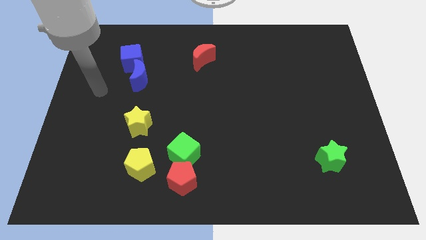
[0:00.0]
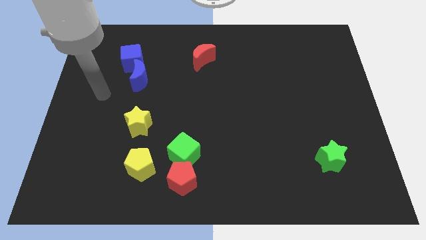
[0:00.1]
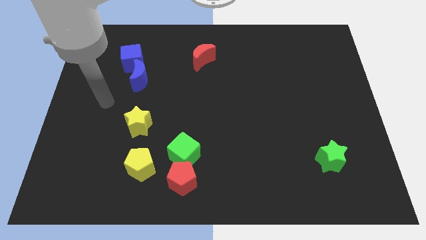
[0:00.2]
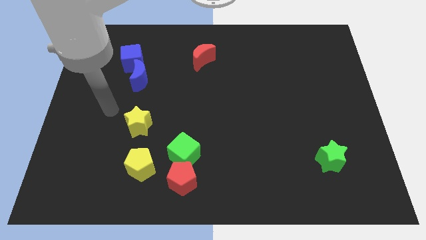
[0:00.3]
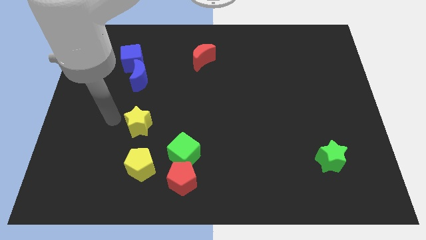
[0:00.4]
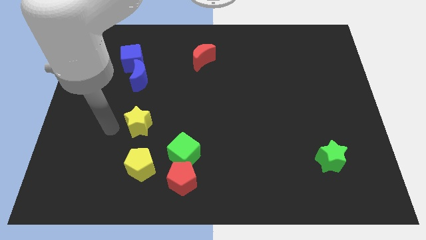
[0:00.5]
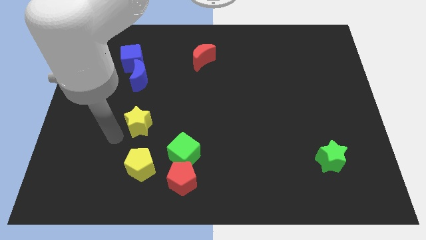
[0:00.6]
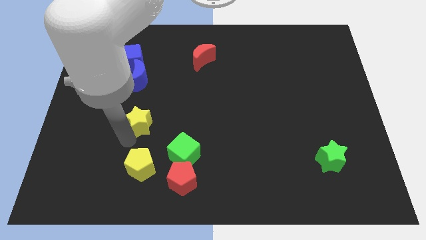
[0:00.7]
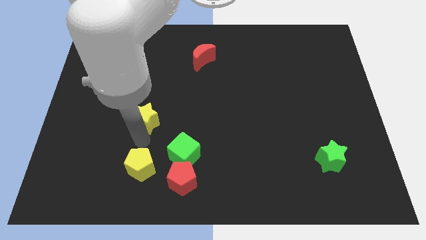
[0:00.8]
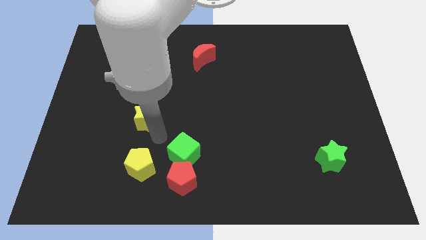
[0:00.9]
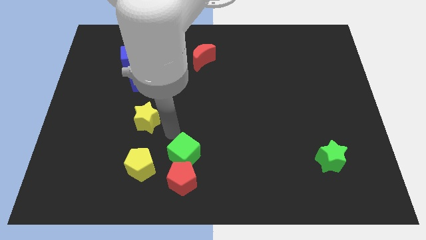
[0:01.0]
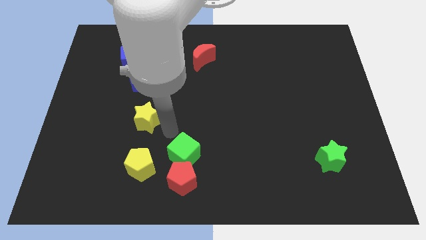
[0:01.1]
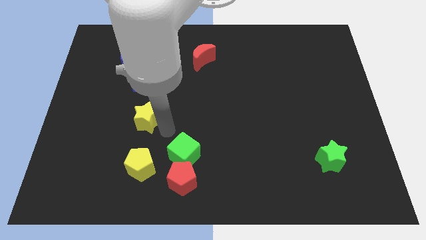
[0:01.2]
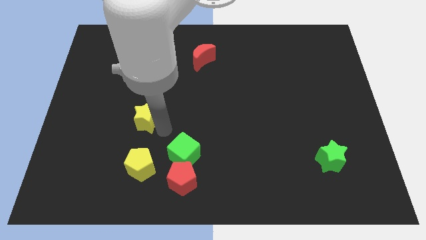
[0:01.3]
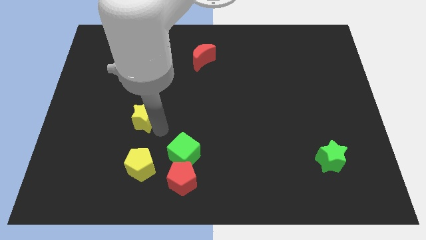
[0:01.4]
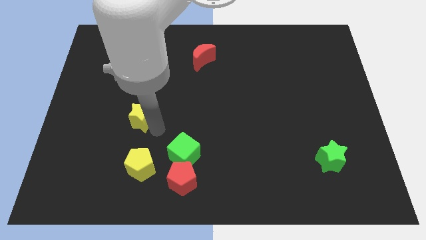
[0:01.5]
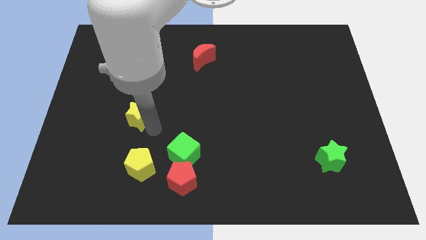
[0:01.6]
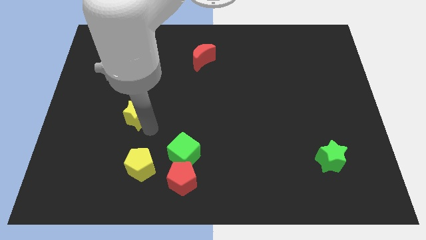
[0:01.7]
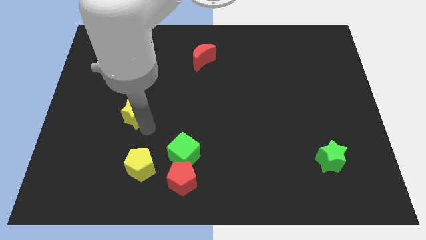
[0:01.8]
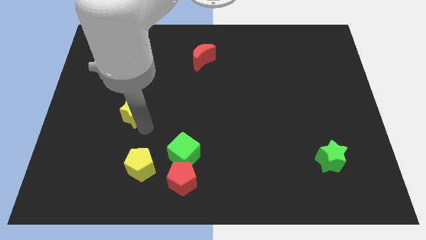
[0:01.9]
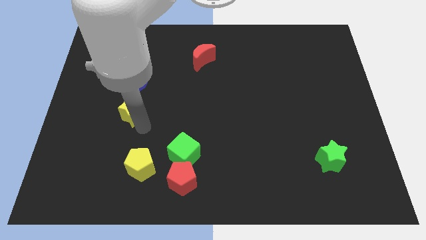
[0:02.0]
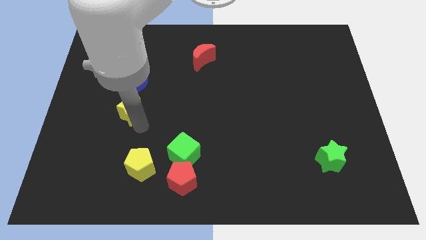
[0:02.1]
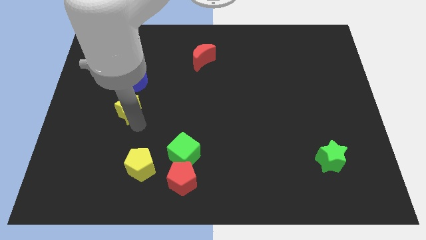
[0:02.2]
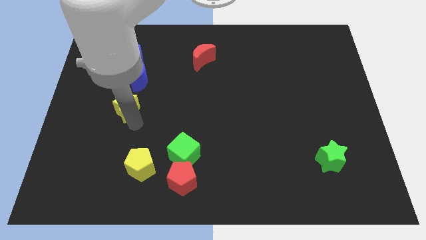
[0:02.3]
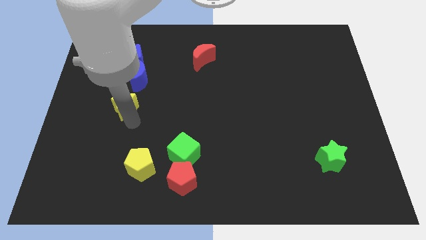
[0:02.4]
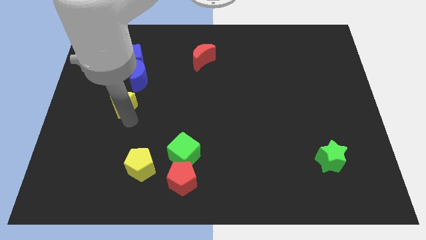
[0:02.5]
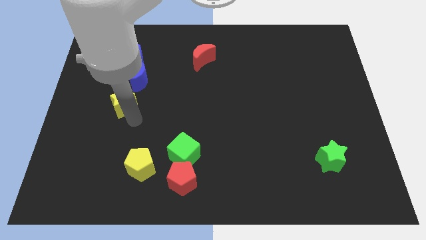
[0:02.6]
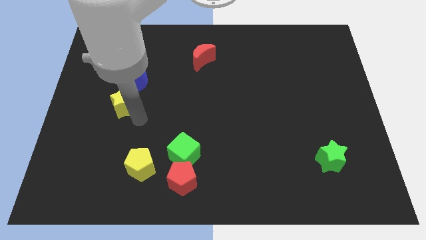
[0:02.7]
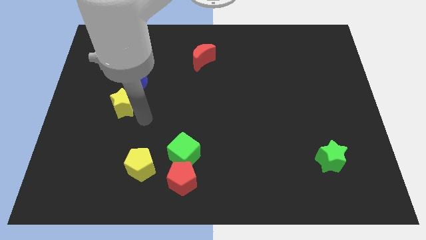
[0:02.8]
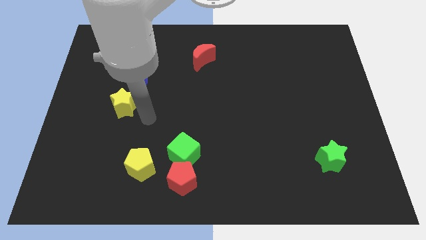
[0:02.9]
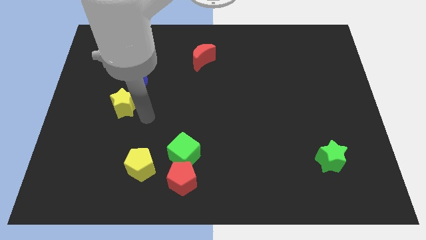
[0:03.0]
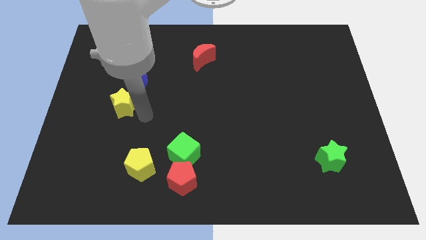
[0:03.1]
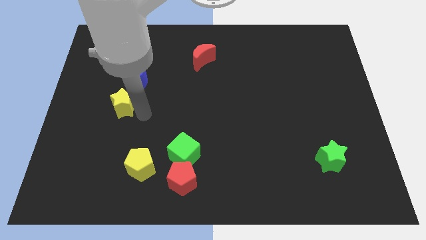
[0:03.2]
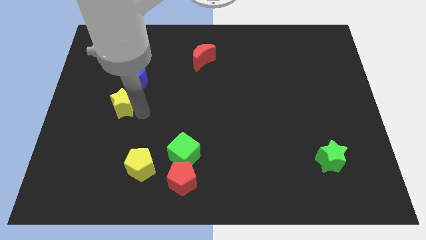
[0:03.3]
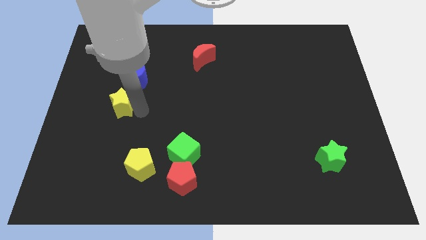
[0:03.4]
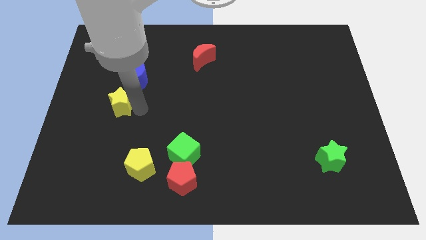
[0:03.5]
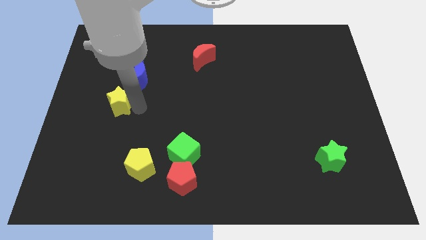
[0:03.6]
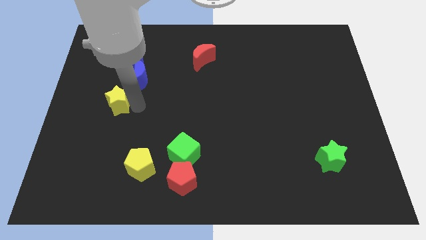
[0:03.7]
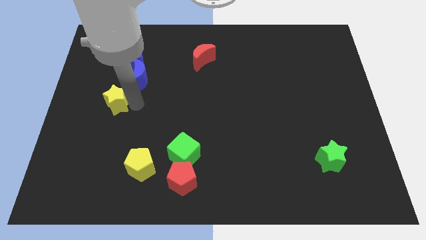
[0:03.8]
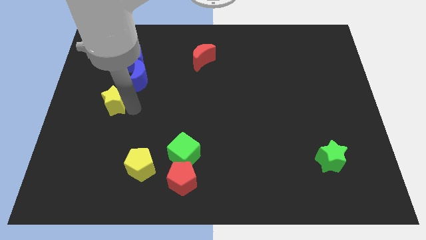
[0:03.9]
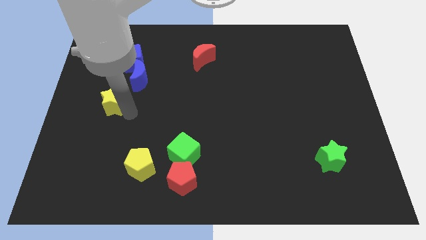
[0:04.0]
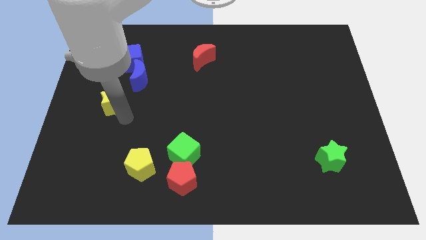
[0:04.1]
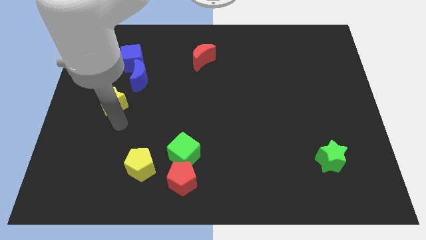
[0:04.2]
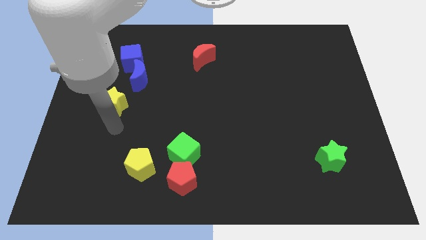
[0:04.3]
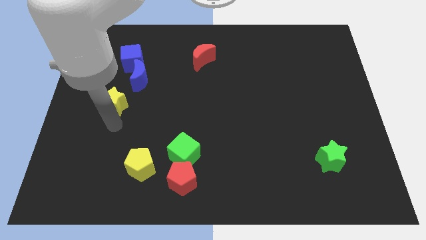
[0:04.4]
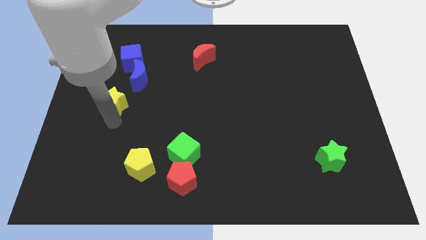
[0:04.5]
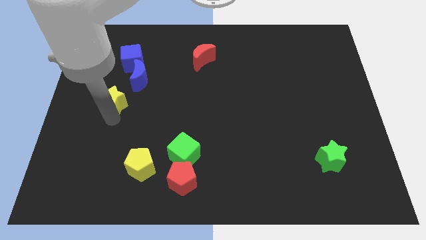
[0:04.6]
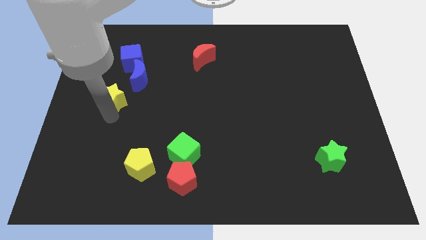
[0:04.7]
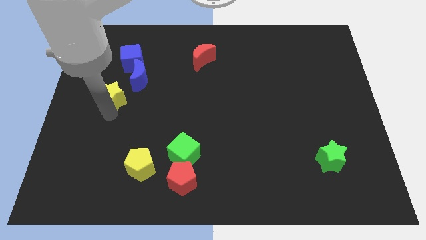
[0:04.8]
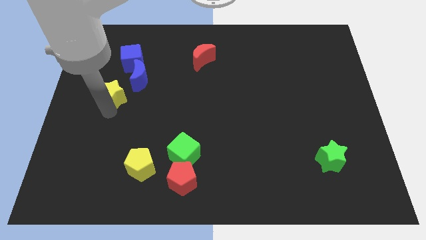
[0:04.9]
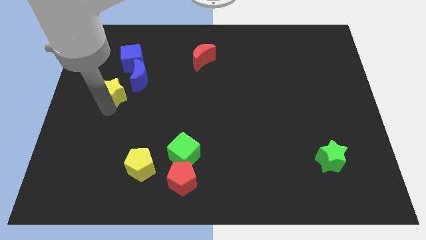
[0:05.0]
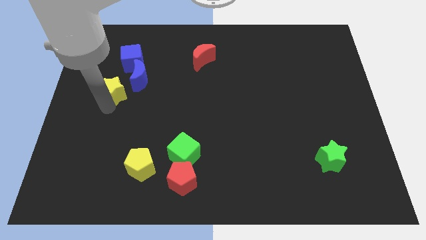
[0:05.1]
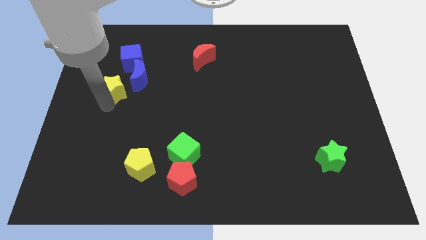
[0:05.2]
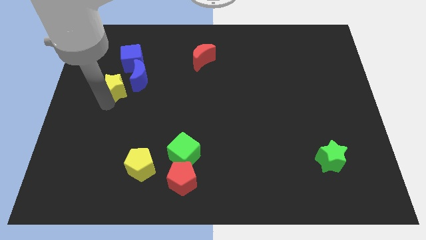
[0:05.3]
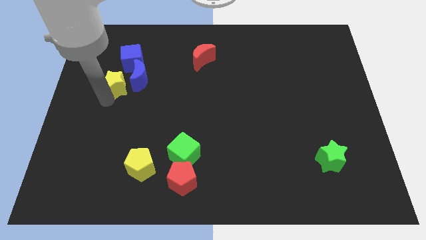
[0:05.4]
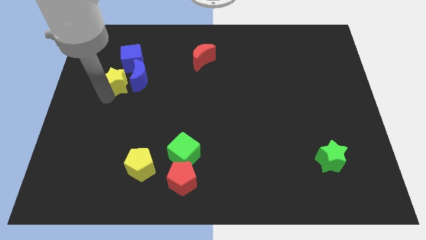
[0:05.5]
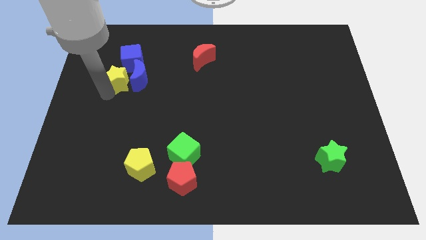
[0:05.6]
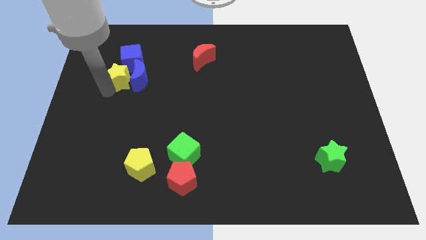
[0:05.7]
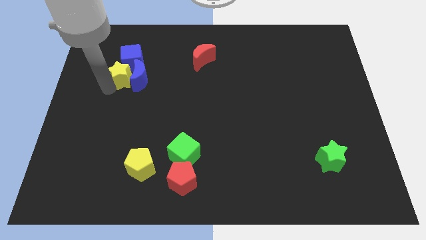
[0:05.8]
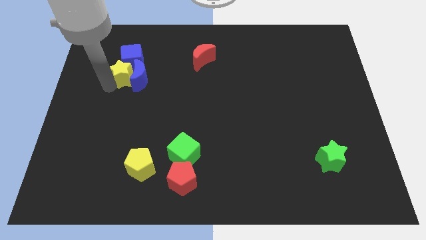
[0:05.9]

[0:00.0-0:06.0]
put the yellow star towards the blue cube

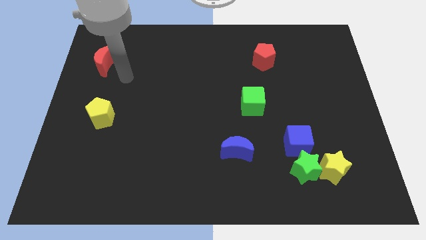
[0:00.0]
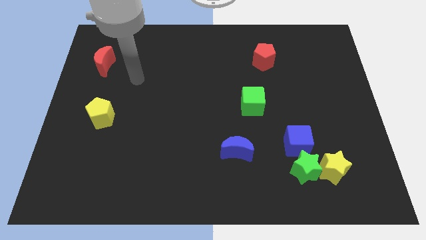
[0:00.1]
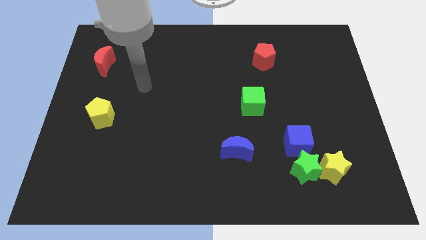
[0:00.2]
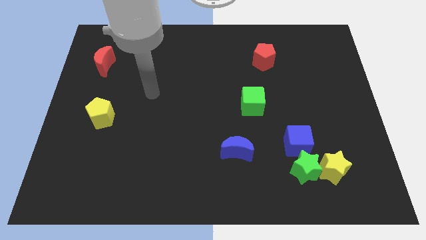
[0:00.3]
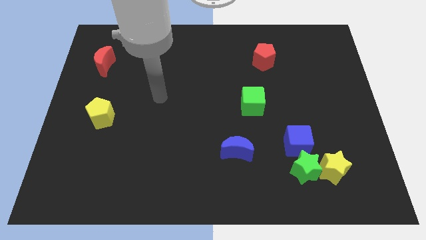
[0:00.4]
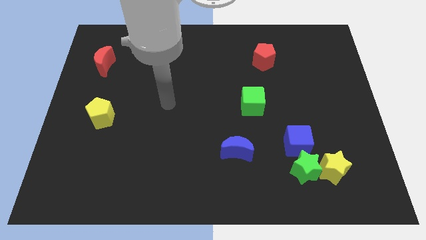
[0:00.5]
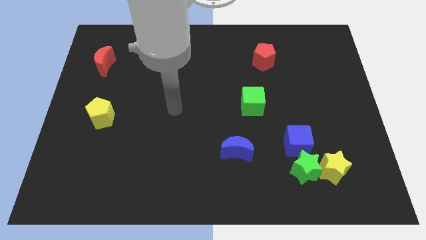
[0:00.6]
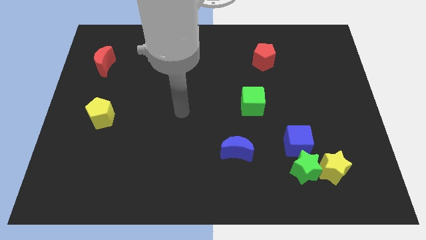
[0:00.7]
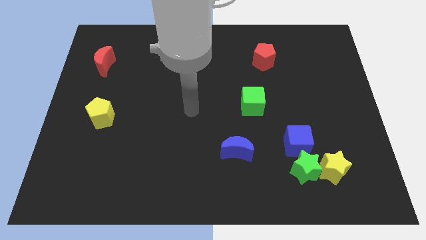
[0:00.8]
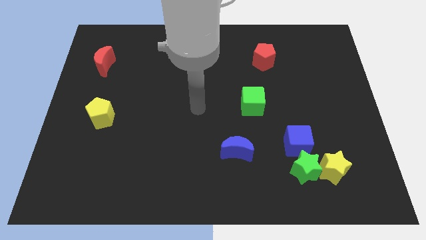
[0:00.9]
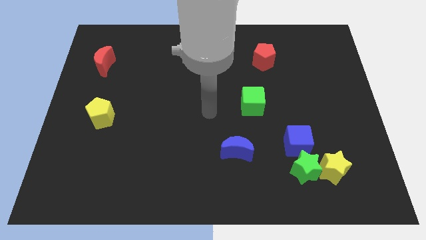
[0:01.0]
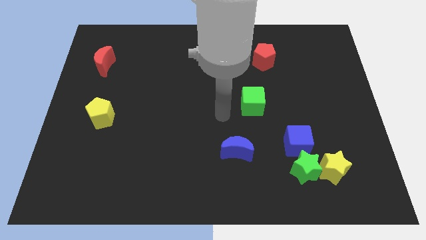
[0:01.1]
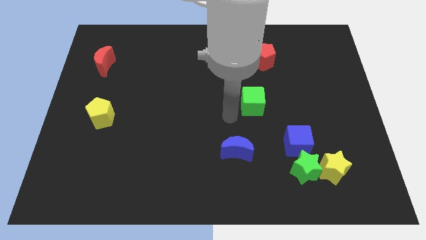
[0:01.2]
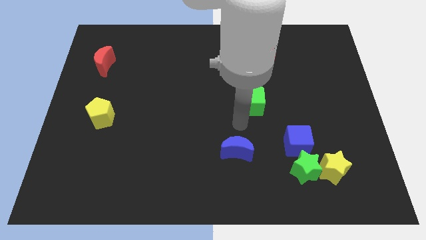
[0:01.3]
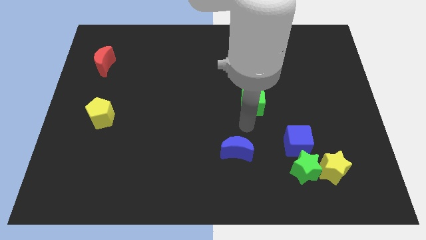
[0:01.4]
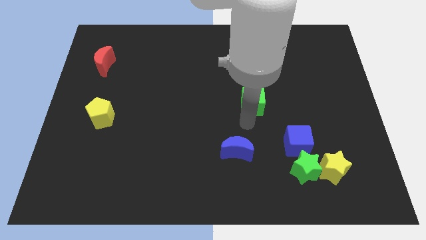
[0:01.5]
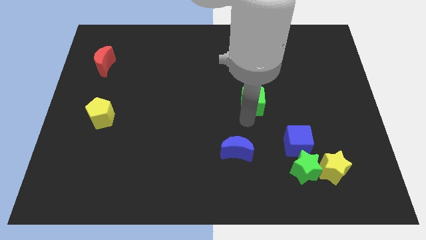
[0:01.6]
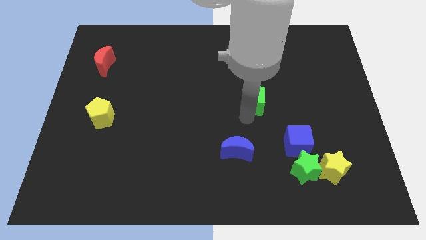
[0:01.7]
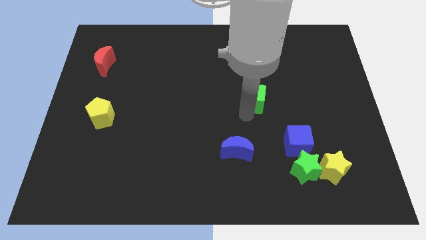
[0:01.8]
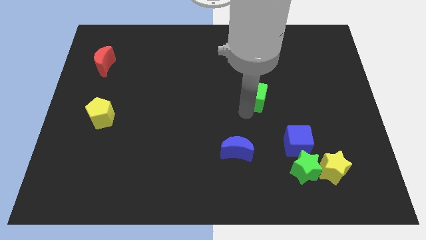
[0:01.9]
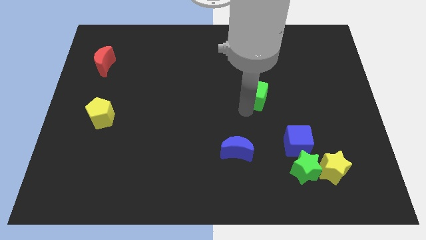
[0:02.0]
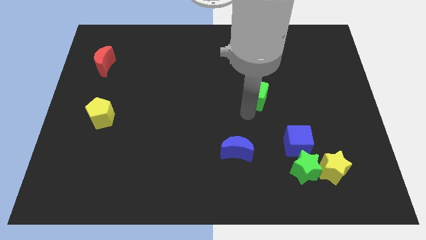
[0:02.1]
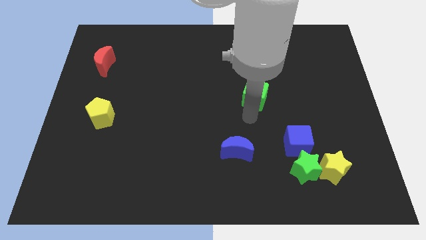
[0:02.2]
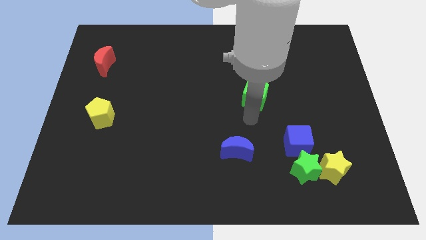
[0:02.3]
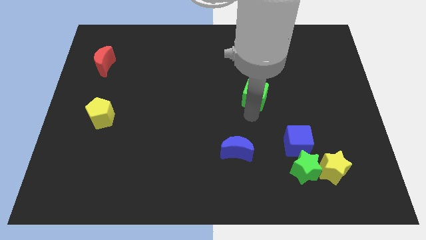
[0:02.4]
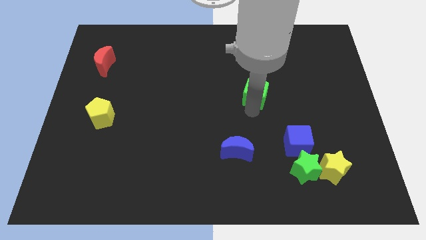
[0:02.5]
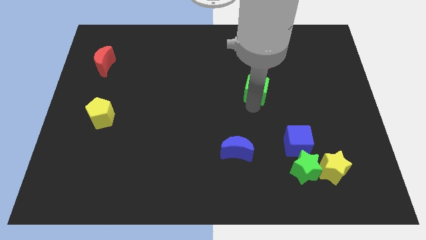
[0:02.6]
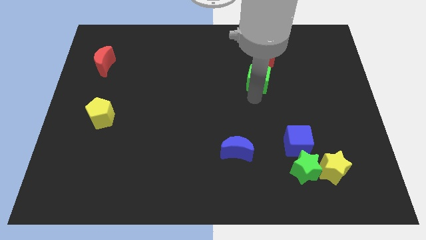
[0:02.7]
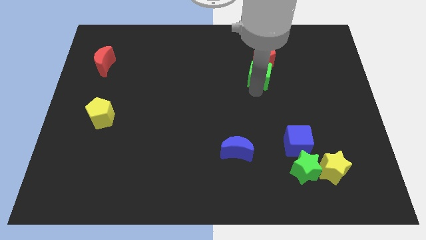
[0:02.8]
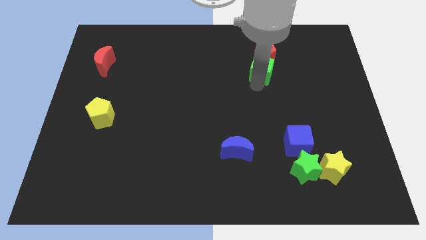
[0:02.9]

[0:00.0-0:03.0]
move the green cube next to the red pentagon
